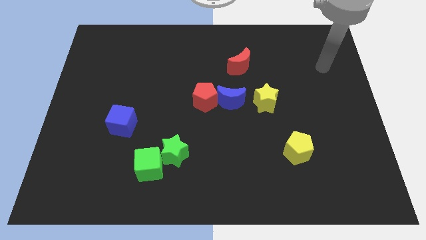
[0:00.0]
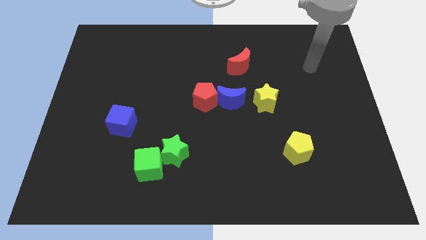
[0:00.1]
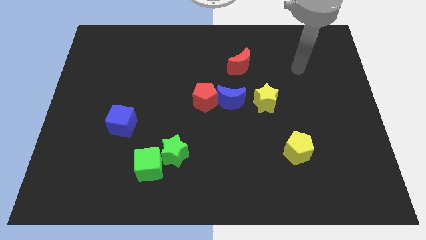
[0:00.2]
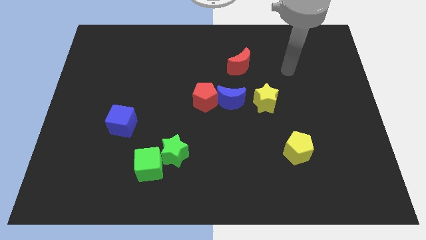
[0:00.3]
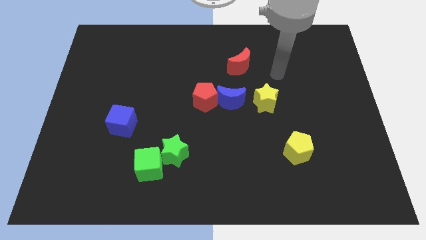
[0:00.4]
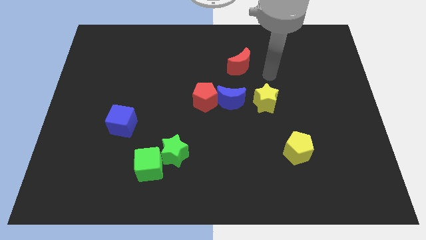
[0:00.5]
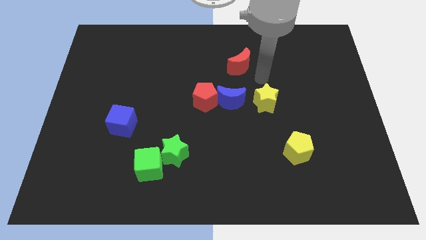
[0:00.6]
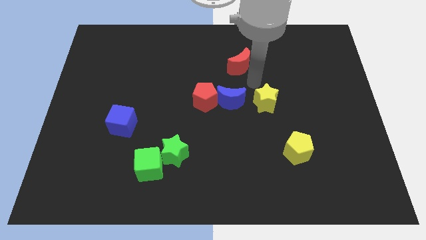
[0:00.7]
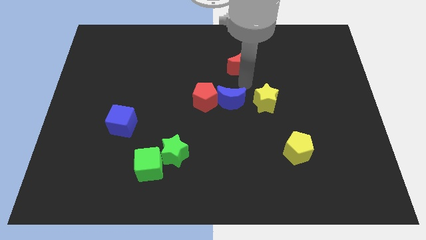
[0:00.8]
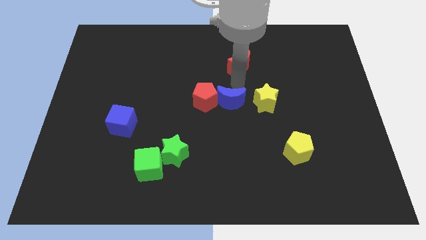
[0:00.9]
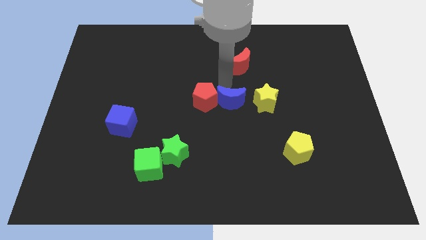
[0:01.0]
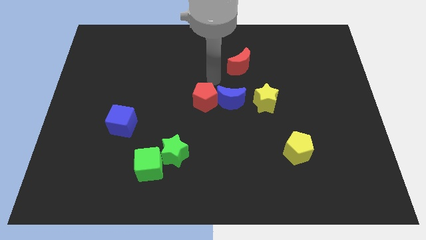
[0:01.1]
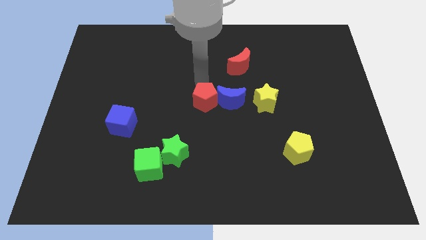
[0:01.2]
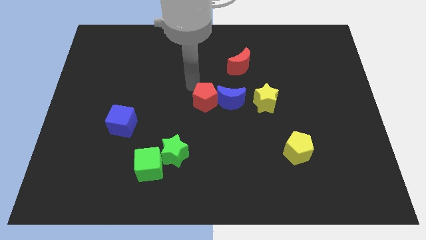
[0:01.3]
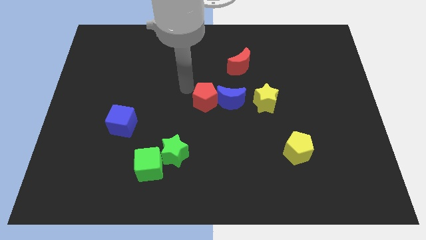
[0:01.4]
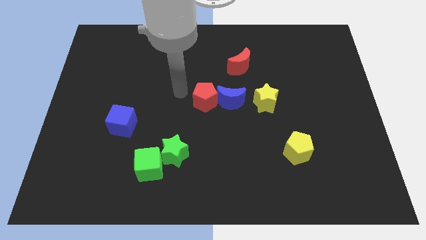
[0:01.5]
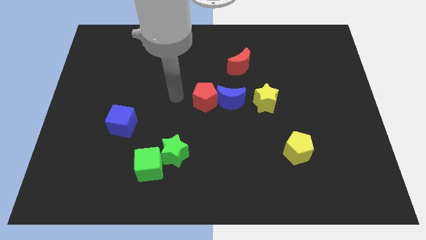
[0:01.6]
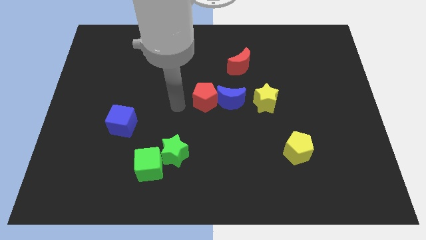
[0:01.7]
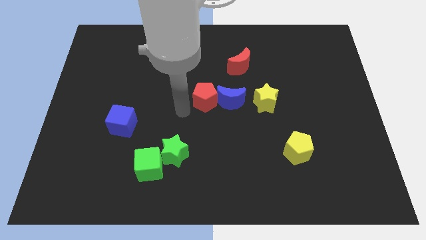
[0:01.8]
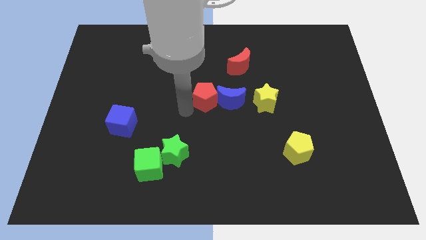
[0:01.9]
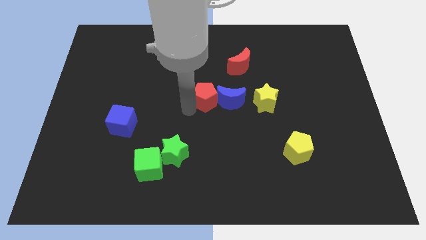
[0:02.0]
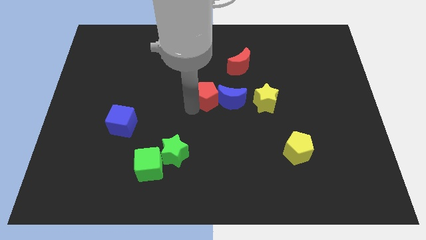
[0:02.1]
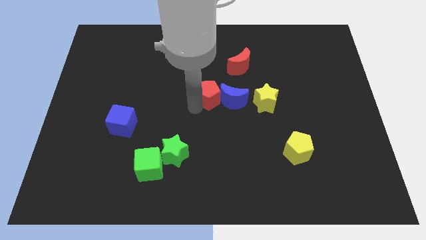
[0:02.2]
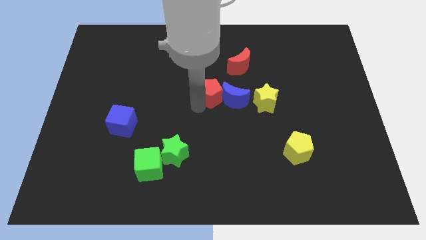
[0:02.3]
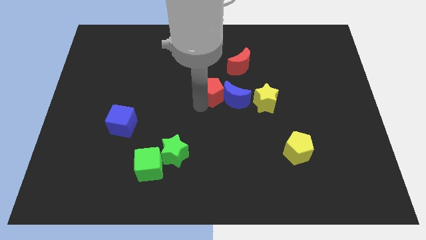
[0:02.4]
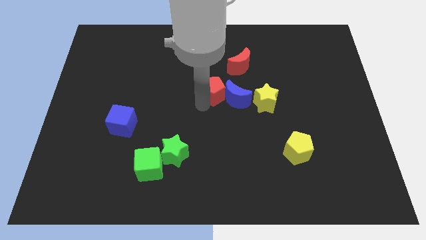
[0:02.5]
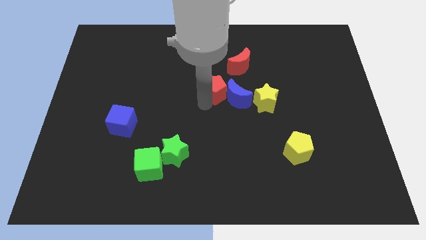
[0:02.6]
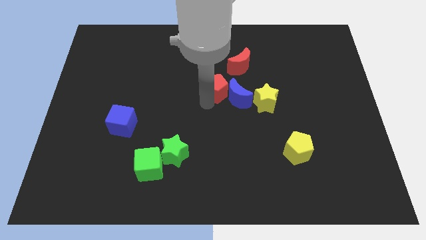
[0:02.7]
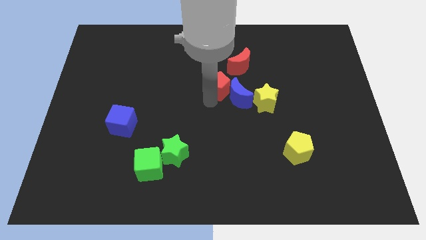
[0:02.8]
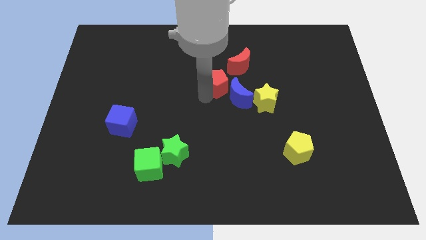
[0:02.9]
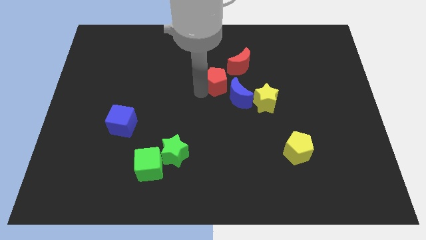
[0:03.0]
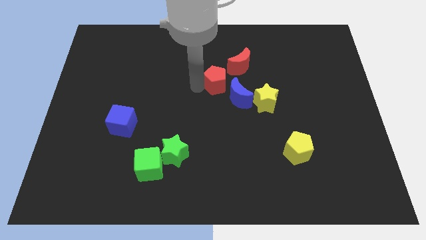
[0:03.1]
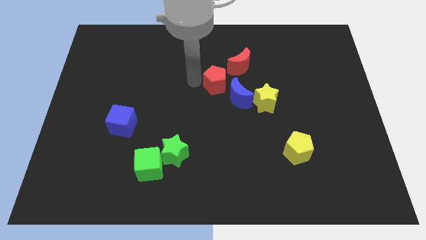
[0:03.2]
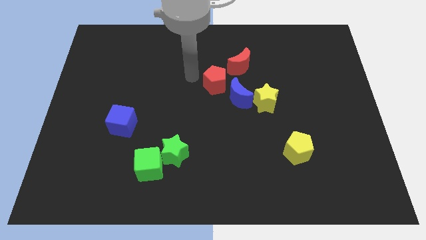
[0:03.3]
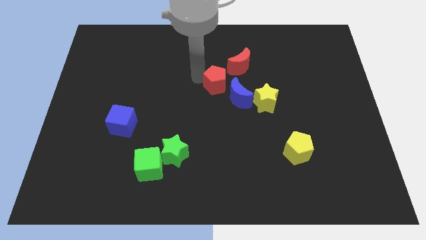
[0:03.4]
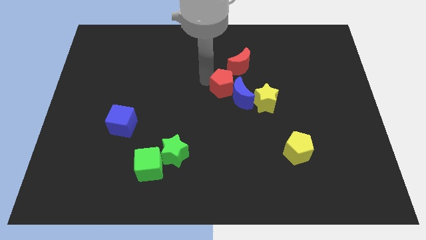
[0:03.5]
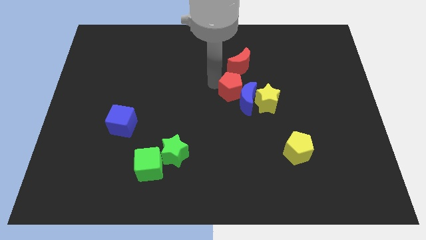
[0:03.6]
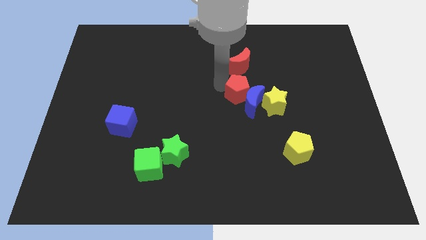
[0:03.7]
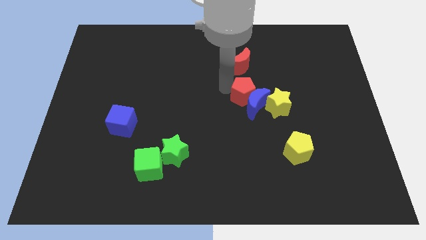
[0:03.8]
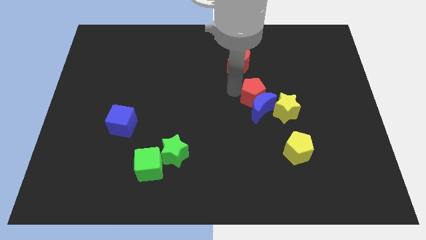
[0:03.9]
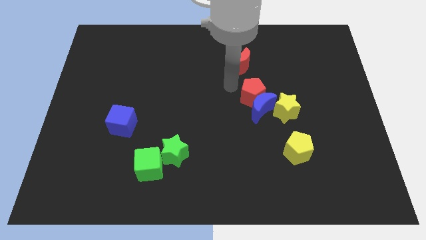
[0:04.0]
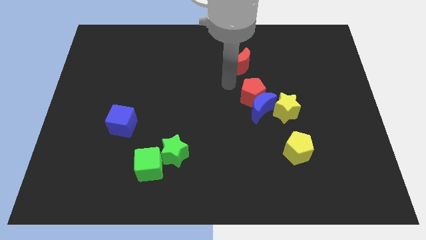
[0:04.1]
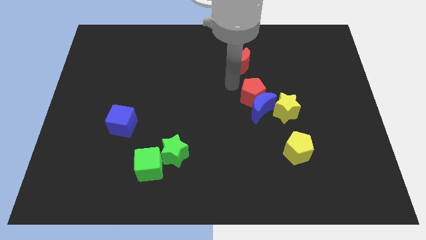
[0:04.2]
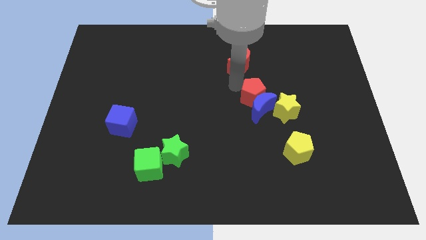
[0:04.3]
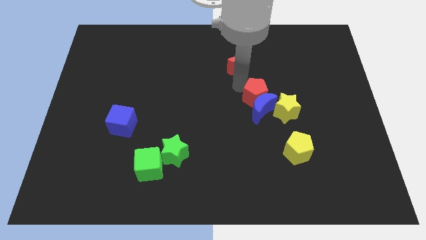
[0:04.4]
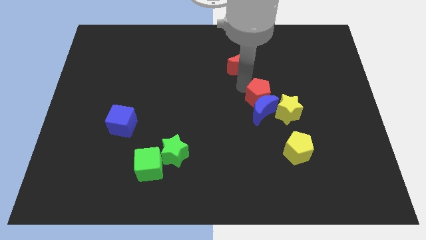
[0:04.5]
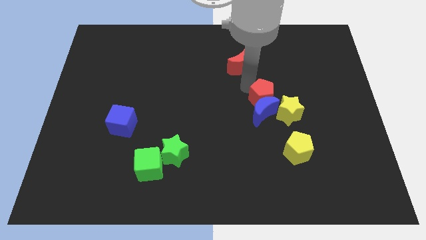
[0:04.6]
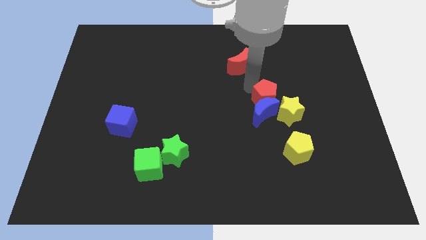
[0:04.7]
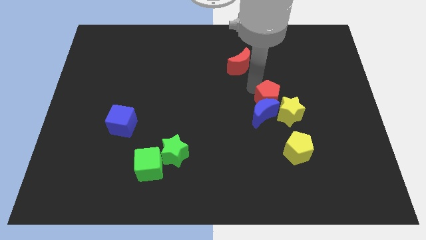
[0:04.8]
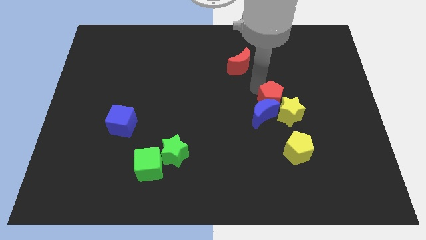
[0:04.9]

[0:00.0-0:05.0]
slide the red pentagon close to the yellow star

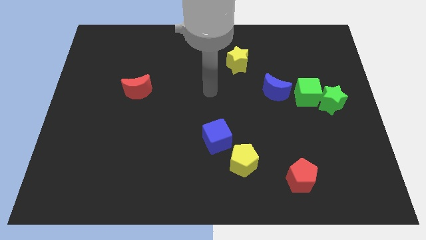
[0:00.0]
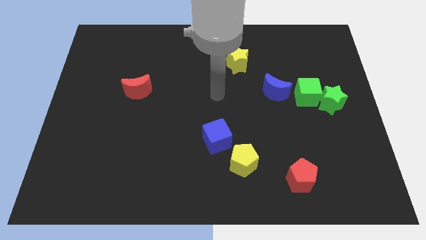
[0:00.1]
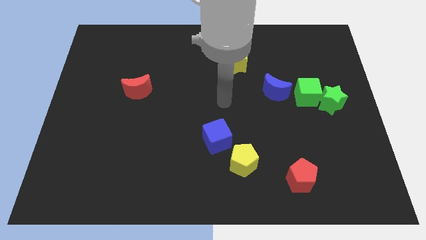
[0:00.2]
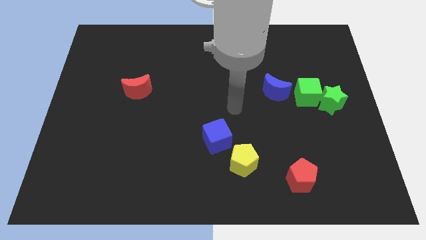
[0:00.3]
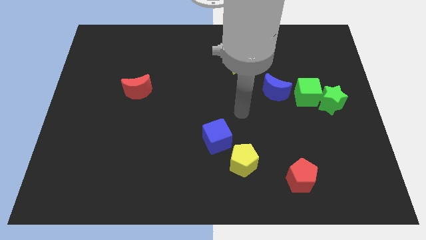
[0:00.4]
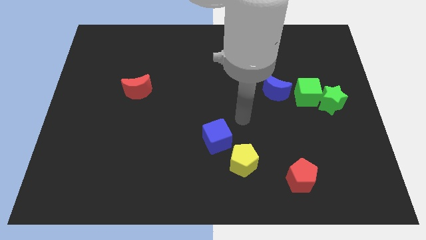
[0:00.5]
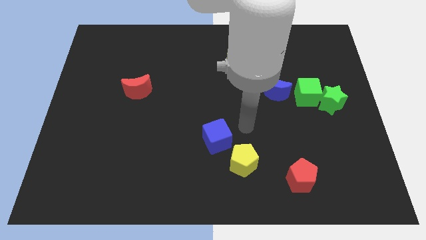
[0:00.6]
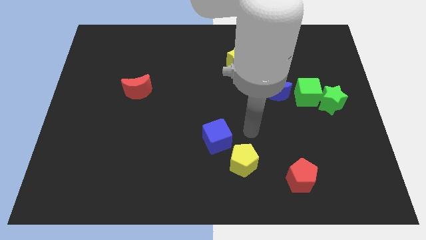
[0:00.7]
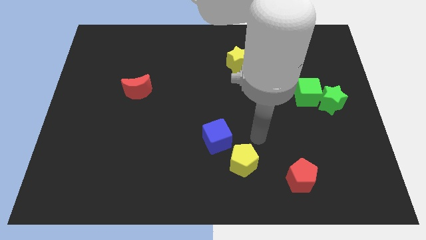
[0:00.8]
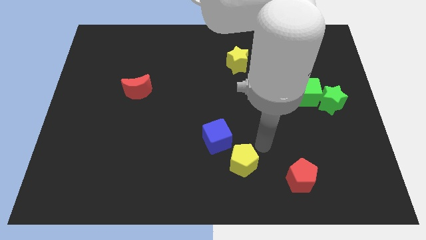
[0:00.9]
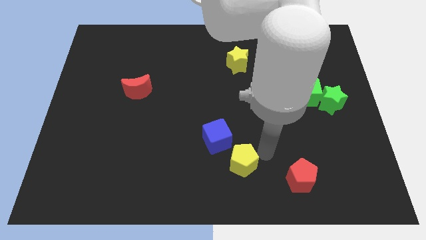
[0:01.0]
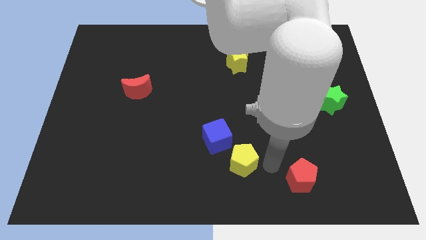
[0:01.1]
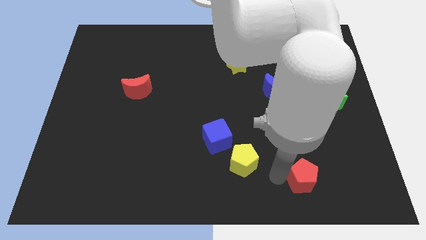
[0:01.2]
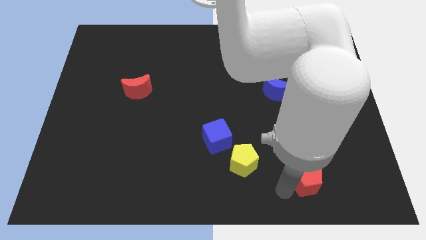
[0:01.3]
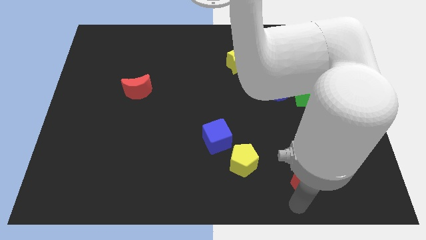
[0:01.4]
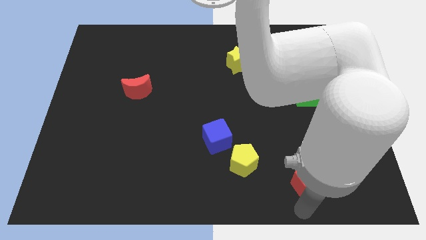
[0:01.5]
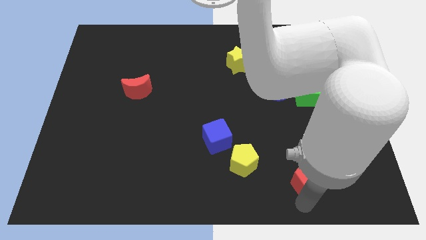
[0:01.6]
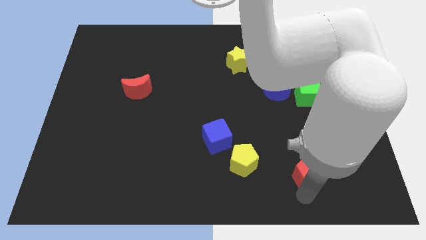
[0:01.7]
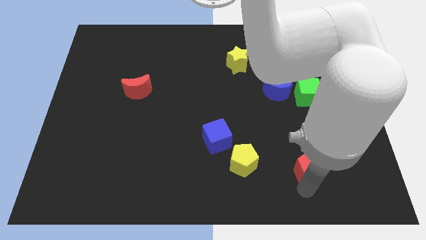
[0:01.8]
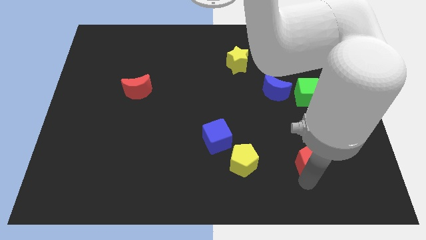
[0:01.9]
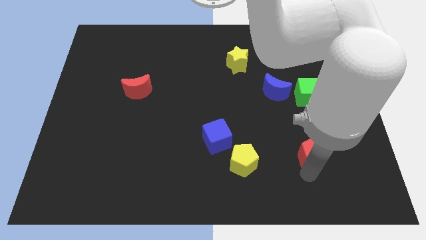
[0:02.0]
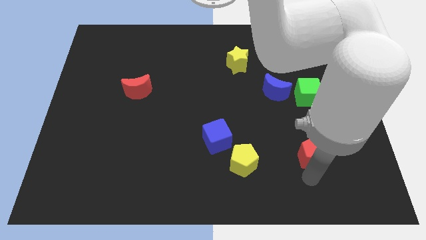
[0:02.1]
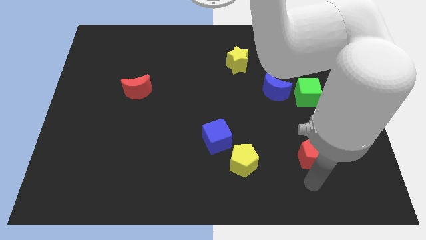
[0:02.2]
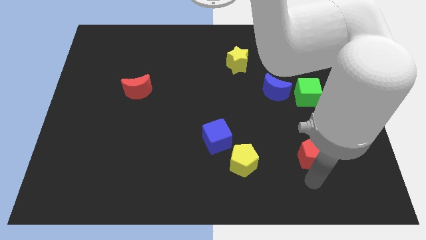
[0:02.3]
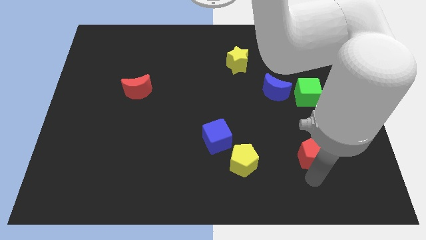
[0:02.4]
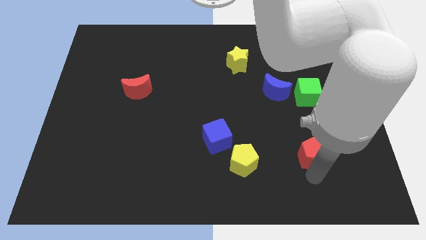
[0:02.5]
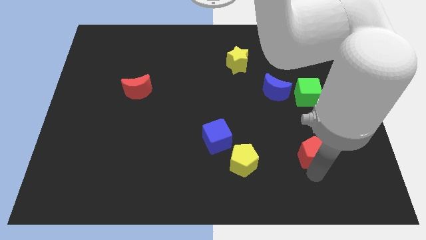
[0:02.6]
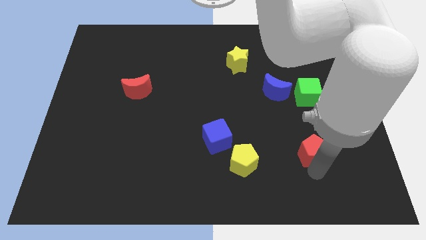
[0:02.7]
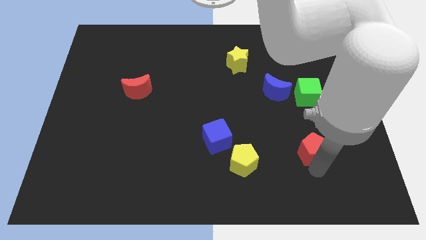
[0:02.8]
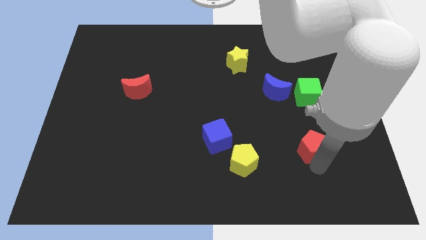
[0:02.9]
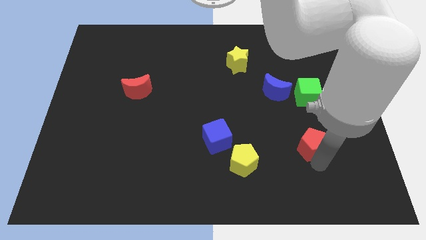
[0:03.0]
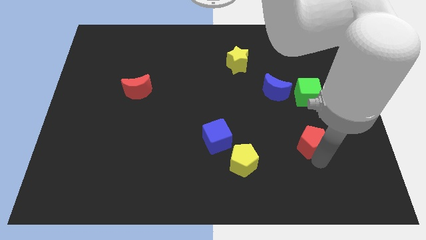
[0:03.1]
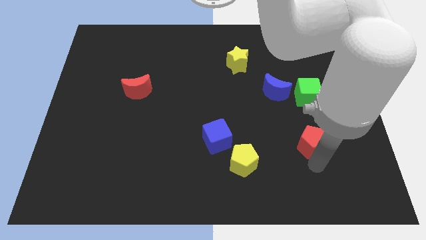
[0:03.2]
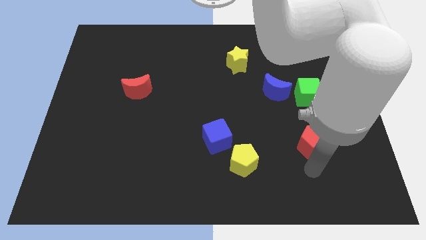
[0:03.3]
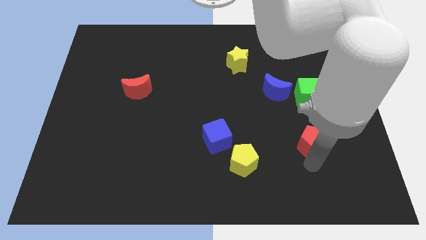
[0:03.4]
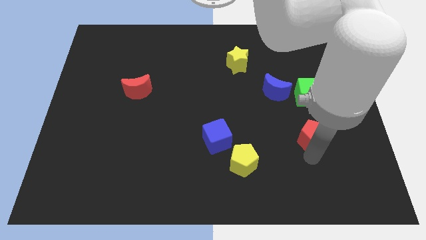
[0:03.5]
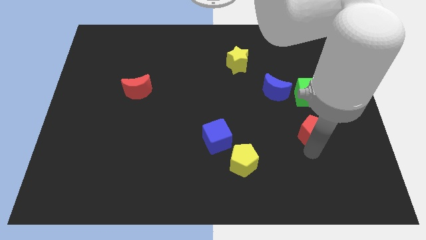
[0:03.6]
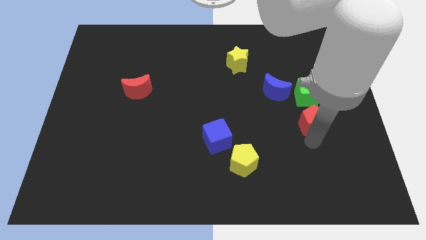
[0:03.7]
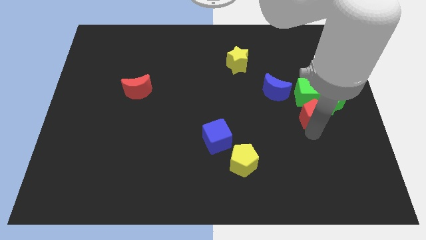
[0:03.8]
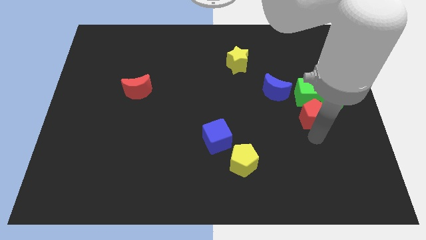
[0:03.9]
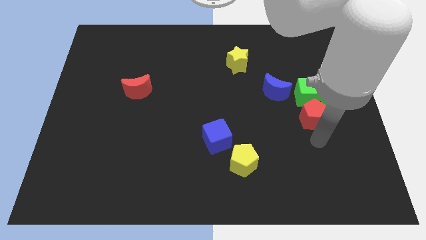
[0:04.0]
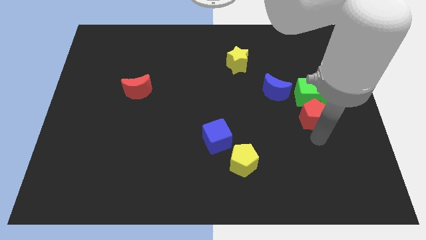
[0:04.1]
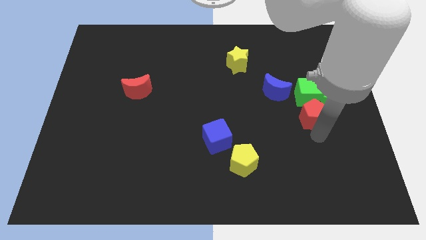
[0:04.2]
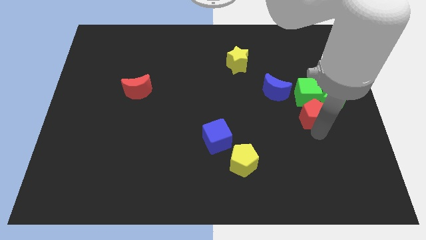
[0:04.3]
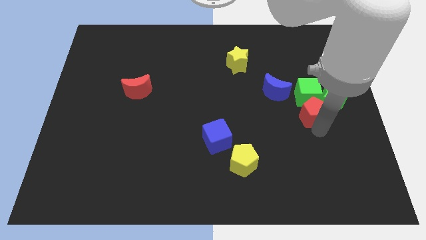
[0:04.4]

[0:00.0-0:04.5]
push the red pentagon to the green cube
